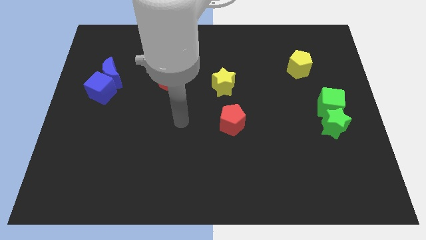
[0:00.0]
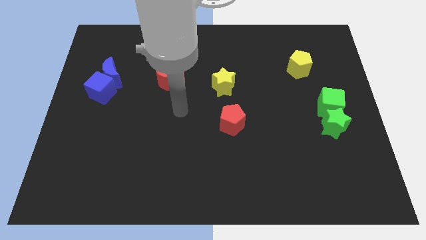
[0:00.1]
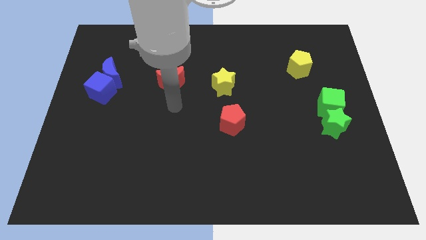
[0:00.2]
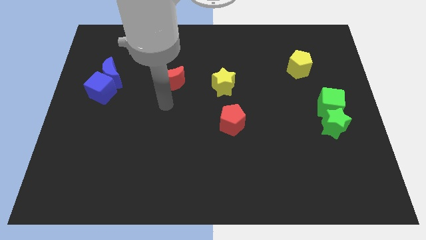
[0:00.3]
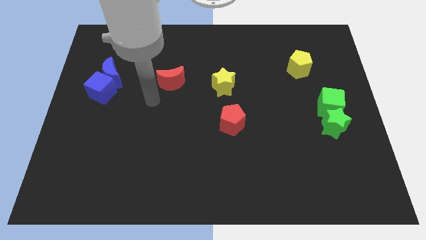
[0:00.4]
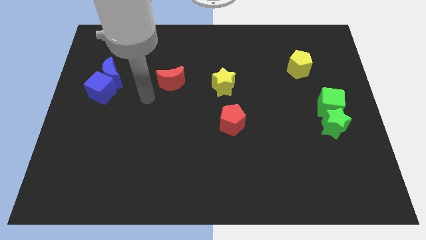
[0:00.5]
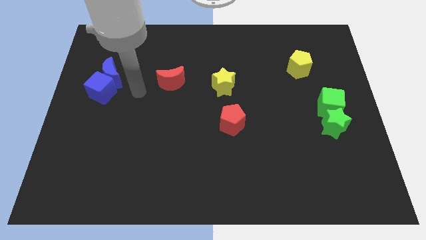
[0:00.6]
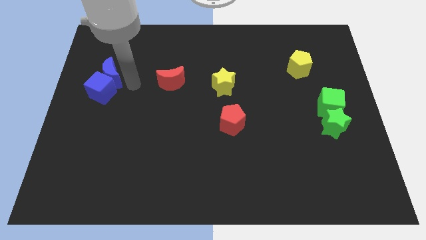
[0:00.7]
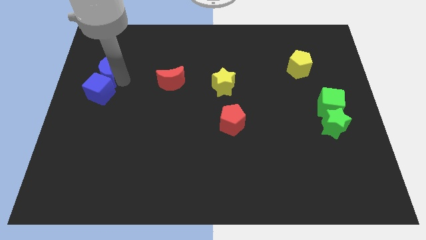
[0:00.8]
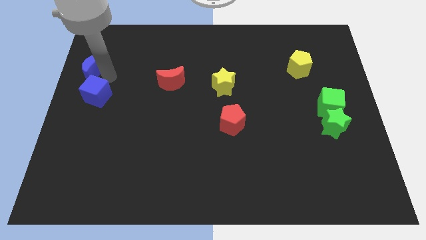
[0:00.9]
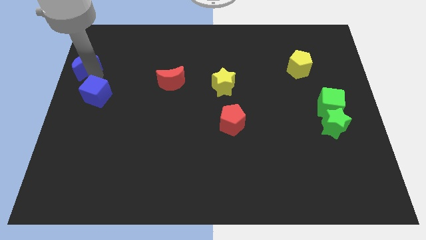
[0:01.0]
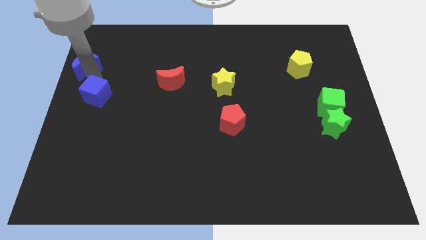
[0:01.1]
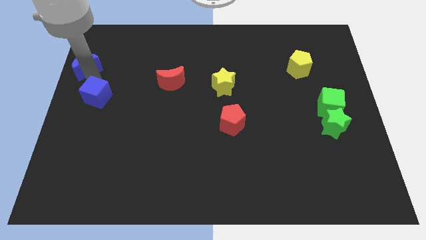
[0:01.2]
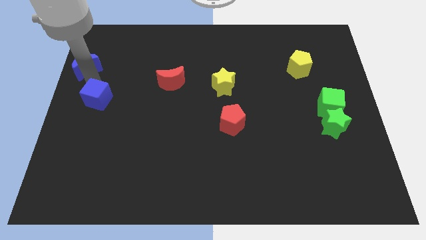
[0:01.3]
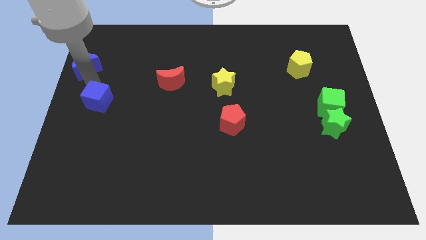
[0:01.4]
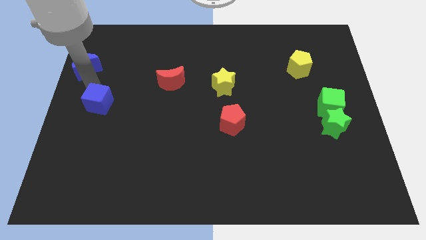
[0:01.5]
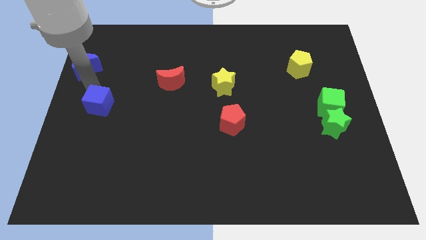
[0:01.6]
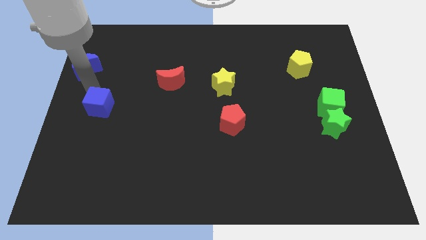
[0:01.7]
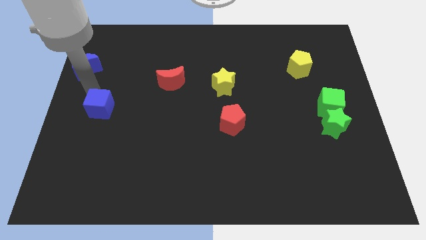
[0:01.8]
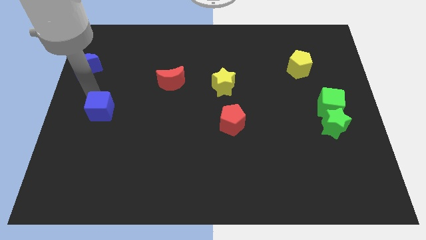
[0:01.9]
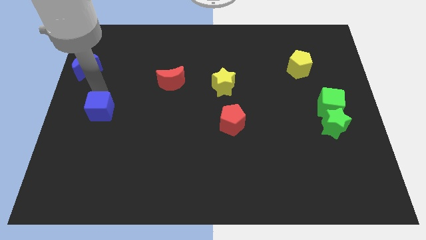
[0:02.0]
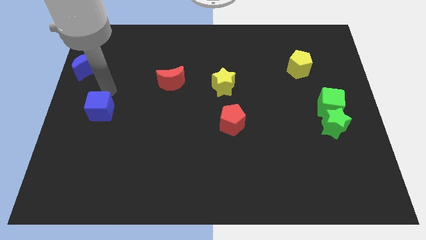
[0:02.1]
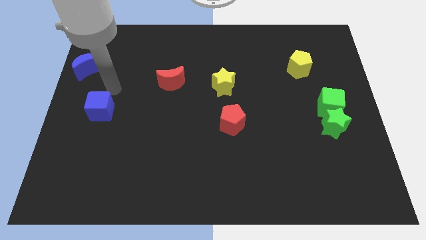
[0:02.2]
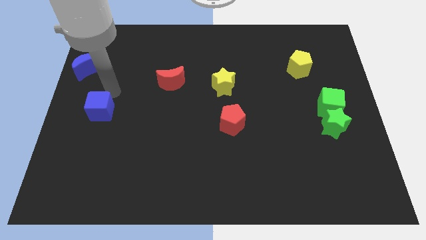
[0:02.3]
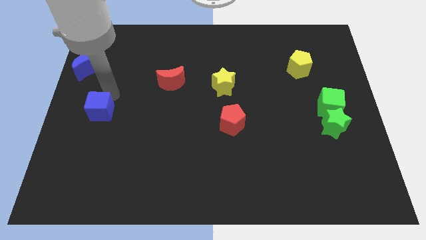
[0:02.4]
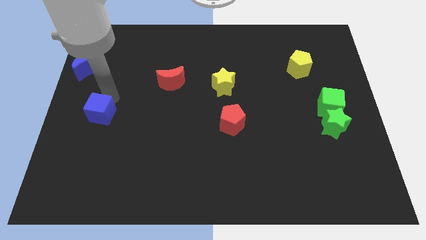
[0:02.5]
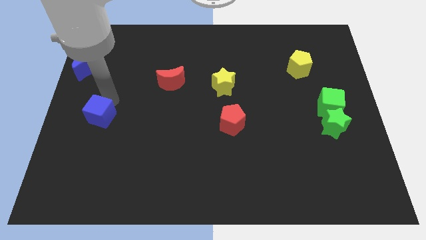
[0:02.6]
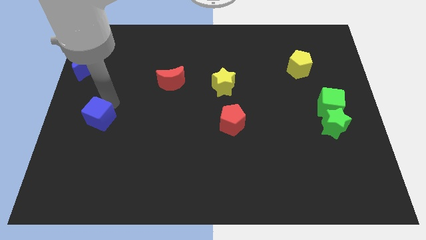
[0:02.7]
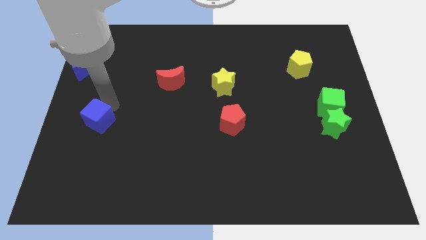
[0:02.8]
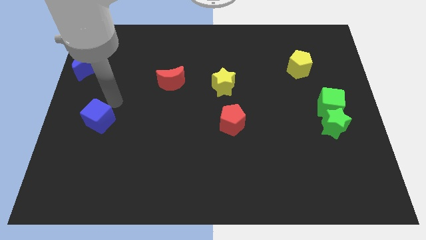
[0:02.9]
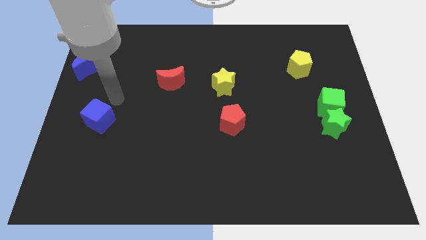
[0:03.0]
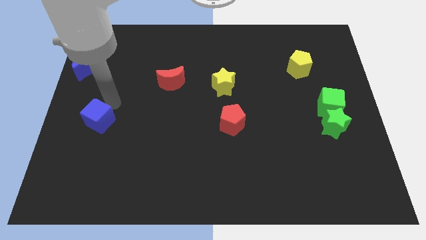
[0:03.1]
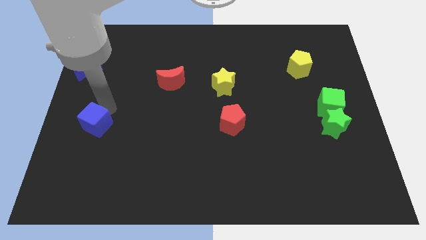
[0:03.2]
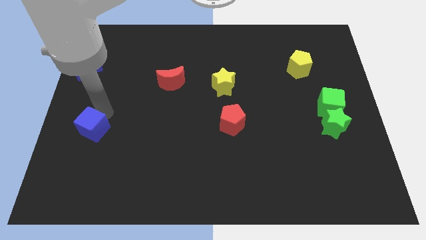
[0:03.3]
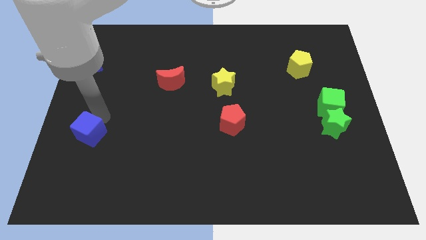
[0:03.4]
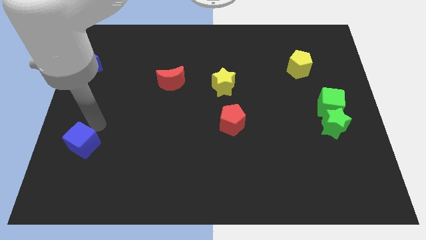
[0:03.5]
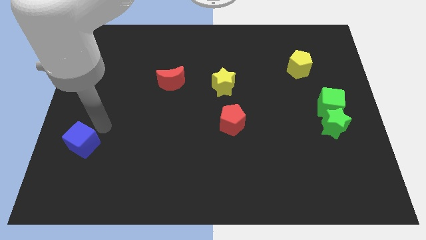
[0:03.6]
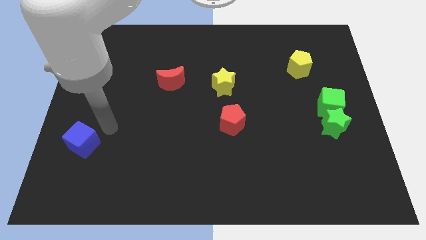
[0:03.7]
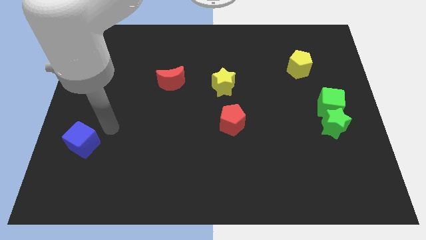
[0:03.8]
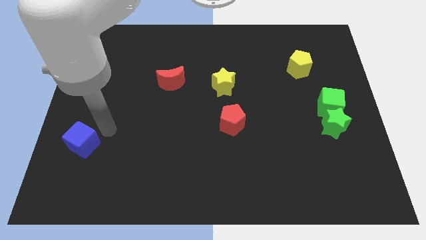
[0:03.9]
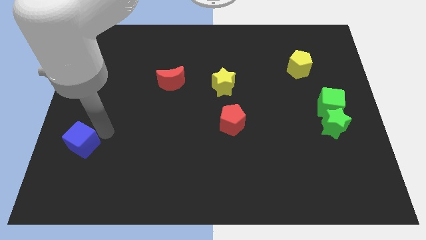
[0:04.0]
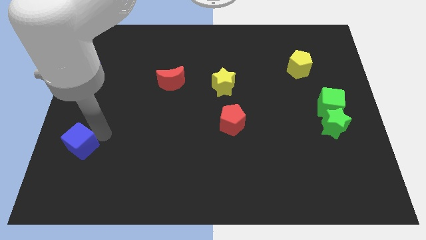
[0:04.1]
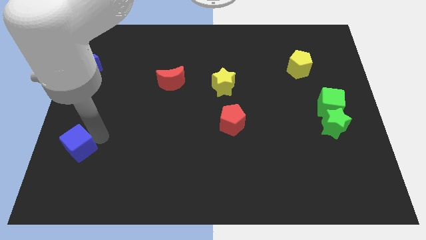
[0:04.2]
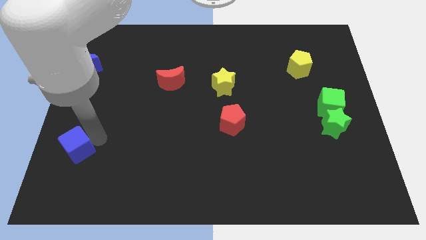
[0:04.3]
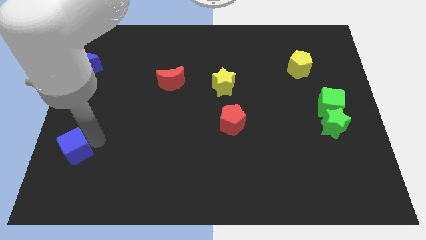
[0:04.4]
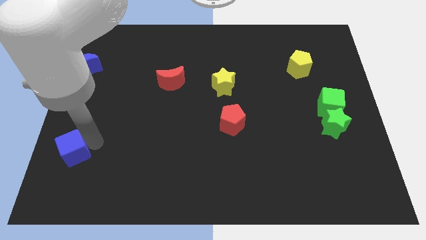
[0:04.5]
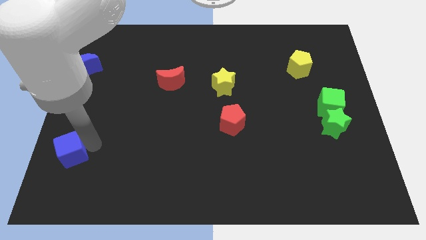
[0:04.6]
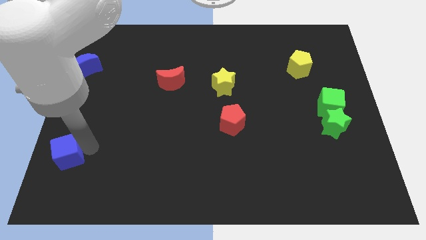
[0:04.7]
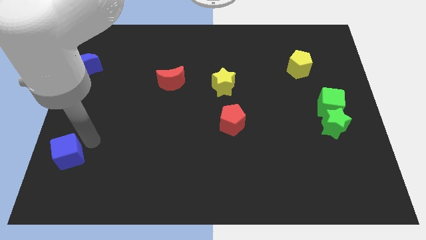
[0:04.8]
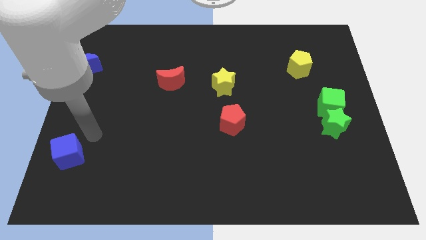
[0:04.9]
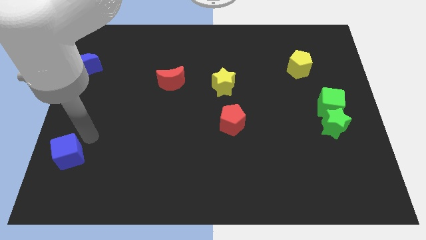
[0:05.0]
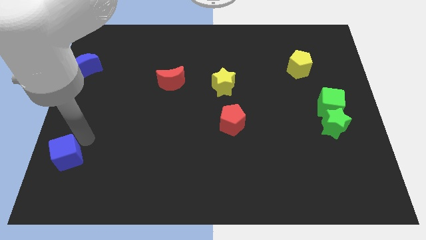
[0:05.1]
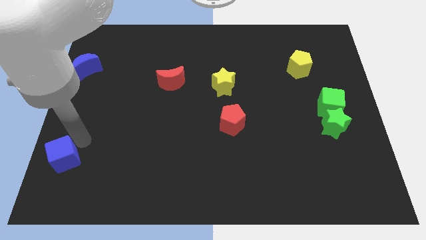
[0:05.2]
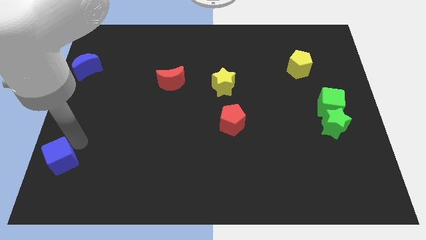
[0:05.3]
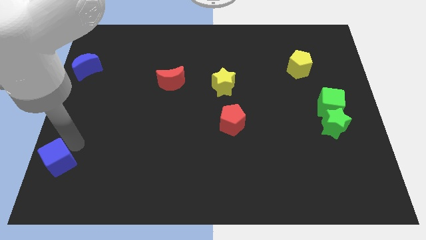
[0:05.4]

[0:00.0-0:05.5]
slide the blue cube to the bottom left corner

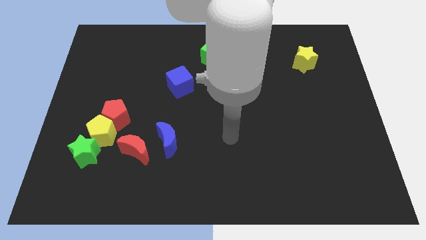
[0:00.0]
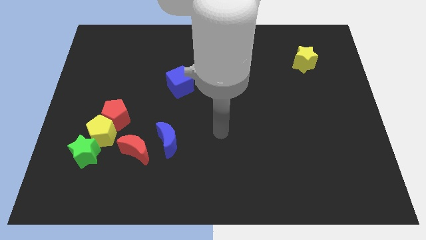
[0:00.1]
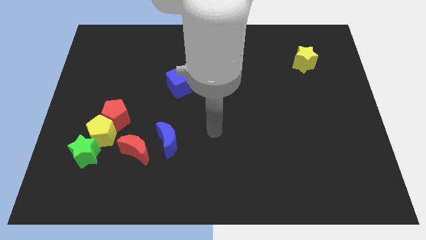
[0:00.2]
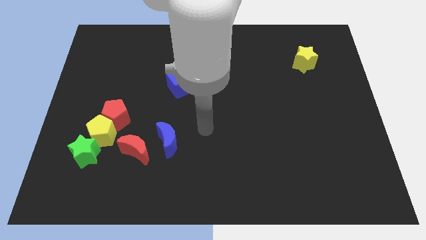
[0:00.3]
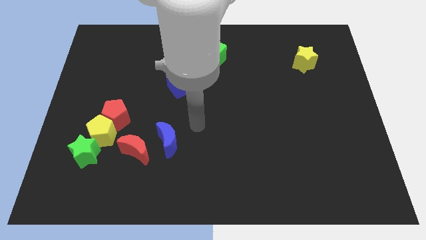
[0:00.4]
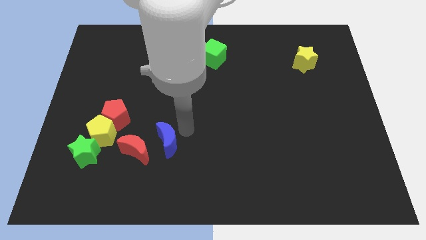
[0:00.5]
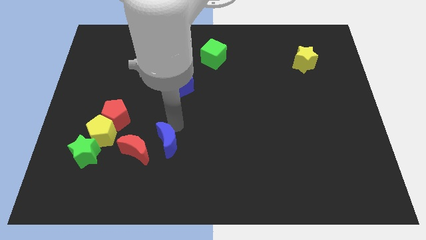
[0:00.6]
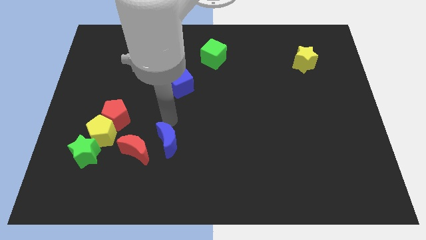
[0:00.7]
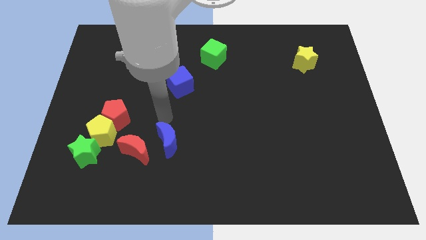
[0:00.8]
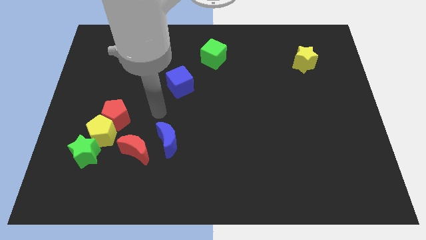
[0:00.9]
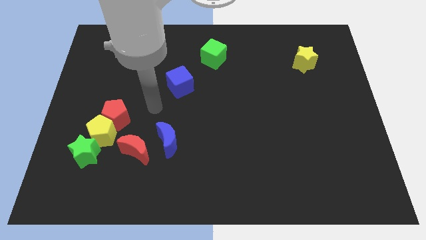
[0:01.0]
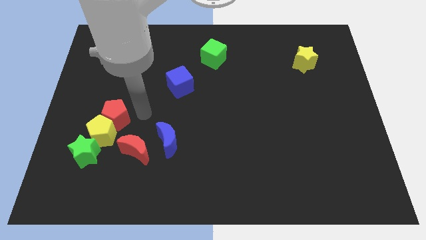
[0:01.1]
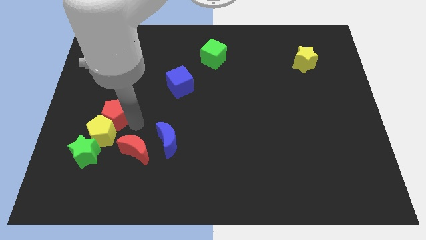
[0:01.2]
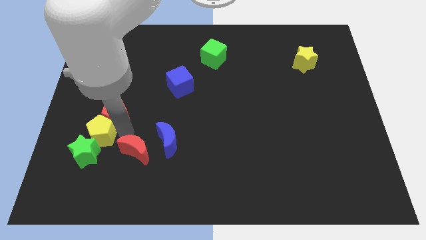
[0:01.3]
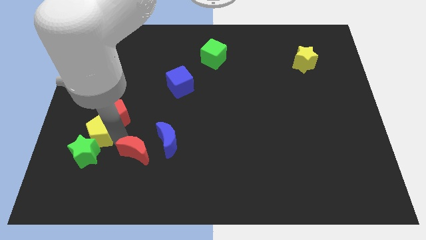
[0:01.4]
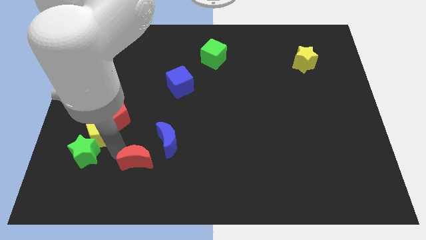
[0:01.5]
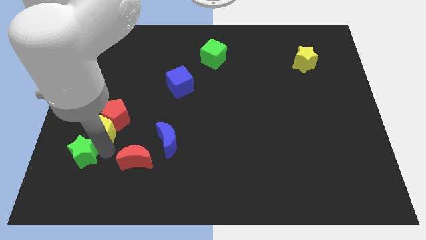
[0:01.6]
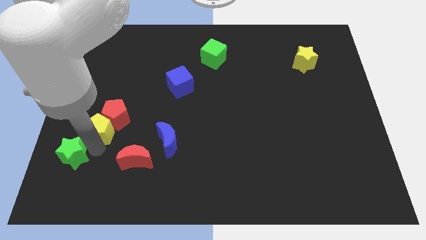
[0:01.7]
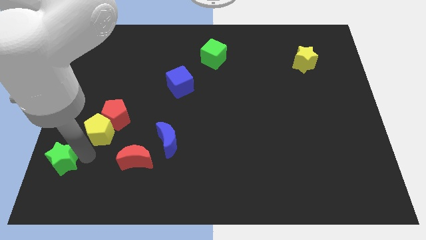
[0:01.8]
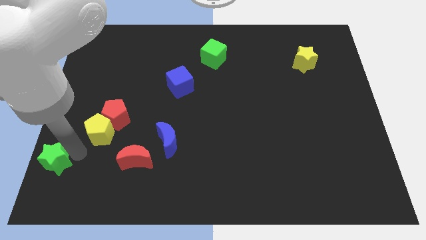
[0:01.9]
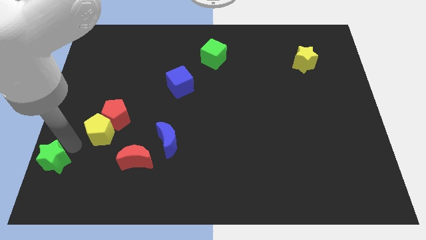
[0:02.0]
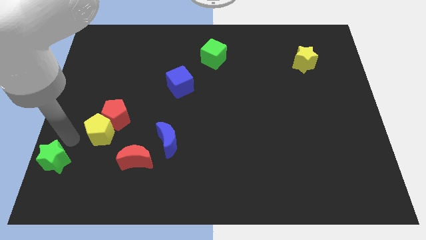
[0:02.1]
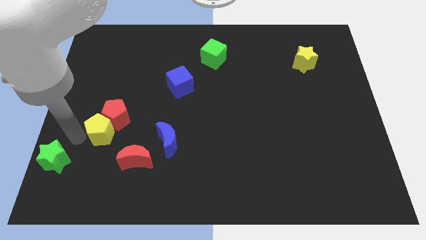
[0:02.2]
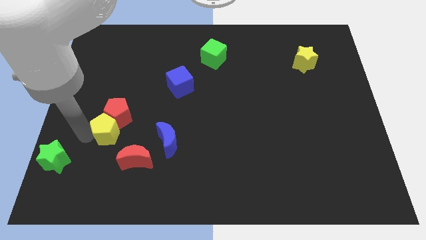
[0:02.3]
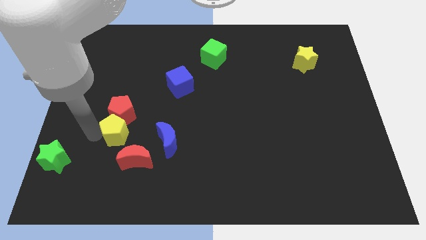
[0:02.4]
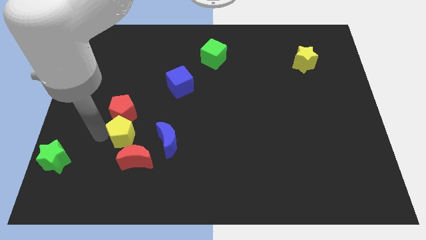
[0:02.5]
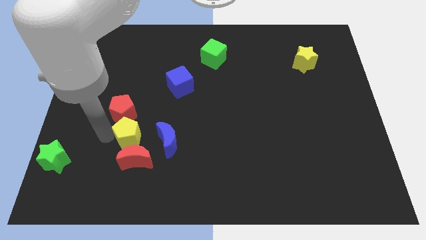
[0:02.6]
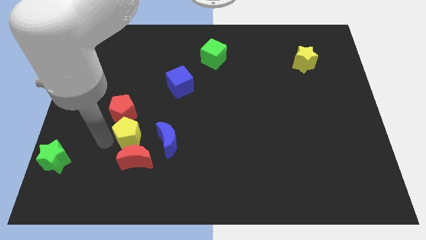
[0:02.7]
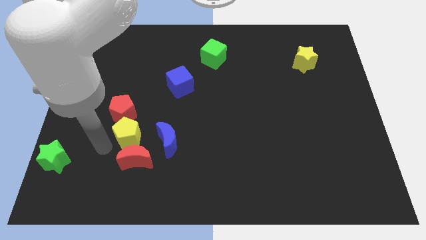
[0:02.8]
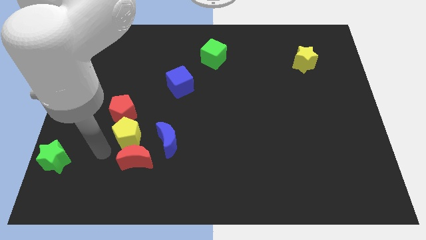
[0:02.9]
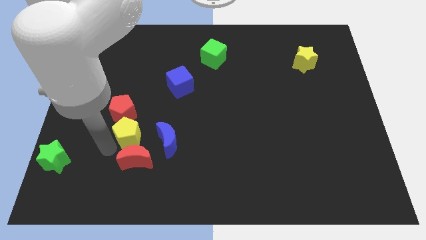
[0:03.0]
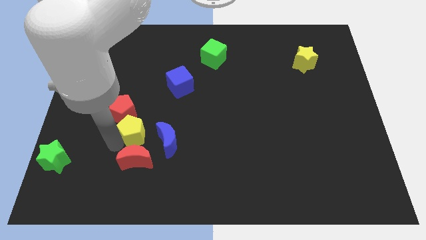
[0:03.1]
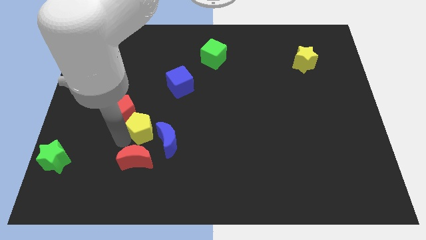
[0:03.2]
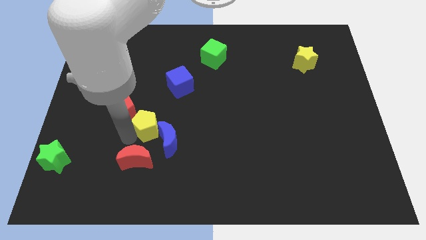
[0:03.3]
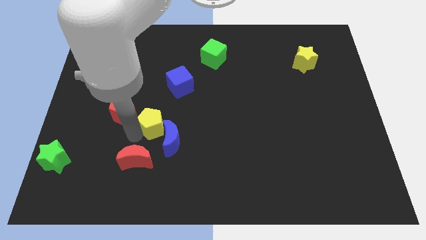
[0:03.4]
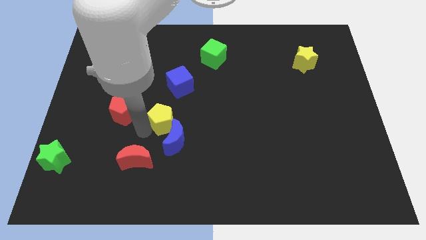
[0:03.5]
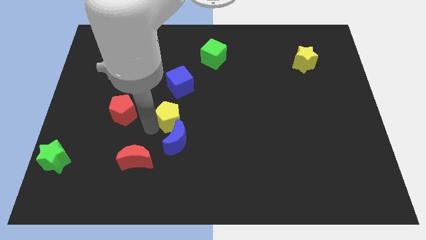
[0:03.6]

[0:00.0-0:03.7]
push the yellow pentagon to the middle
